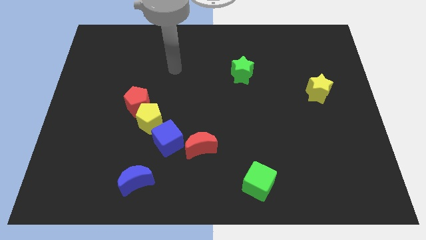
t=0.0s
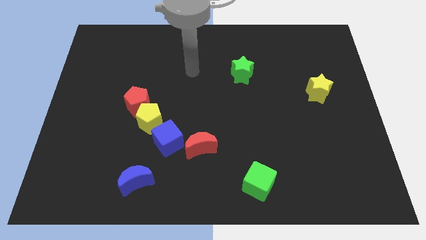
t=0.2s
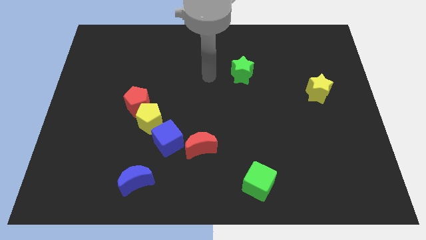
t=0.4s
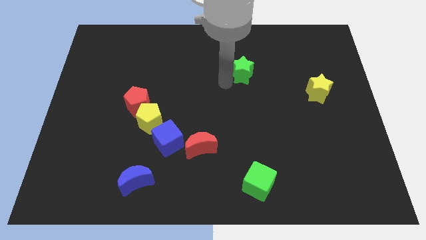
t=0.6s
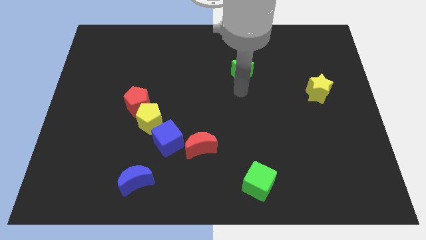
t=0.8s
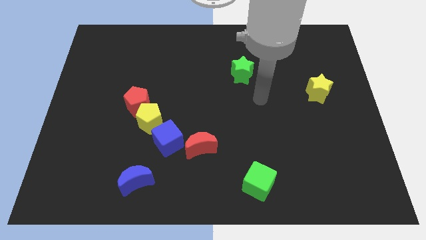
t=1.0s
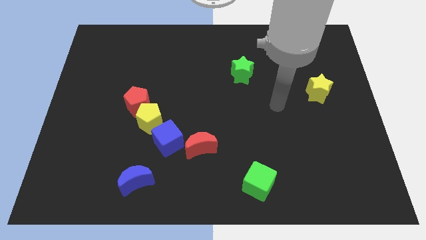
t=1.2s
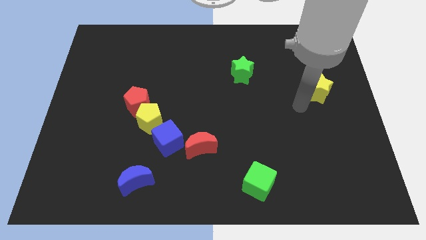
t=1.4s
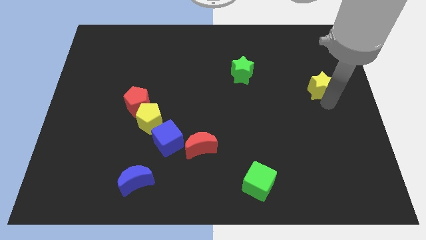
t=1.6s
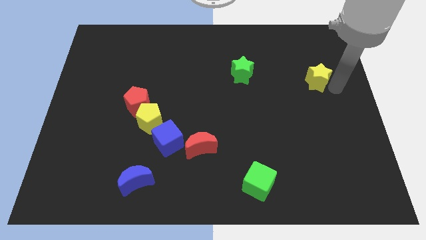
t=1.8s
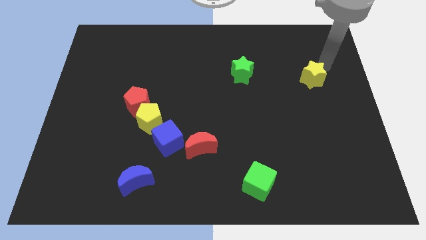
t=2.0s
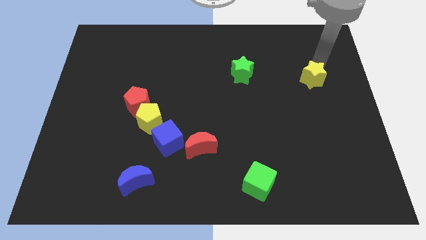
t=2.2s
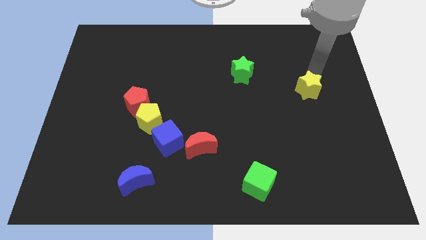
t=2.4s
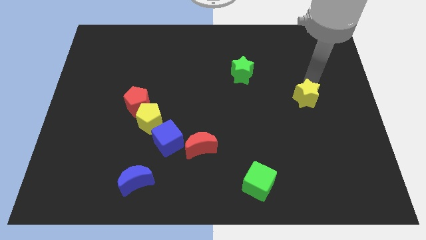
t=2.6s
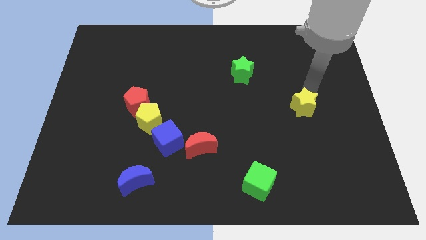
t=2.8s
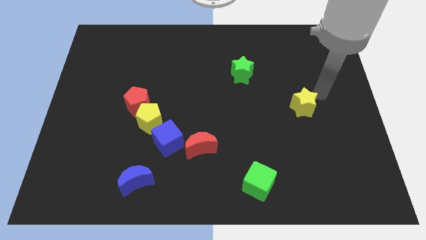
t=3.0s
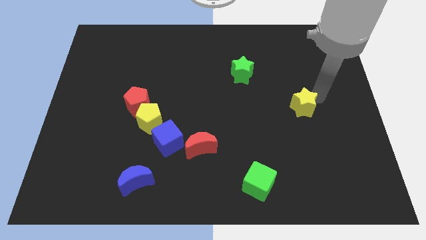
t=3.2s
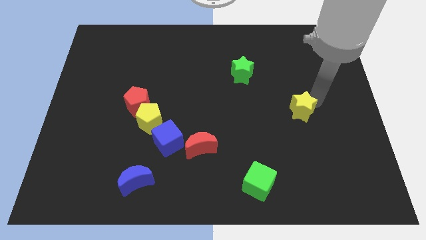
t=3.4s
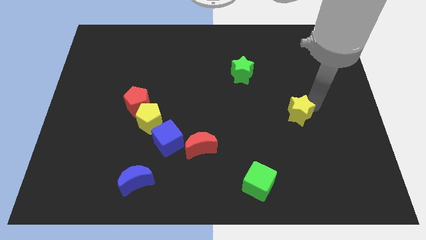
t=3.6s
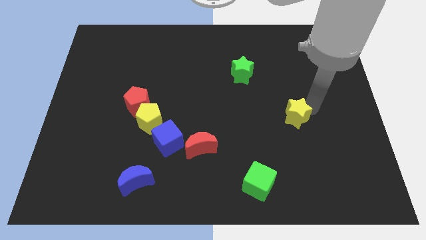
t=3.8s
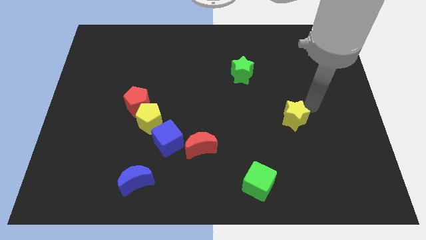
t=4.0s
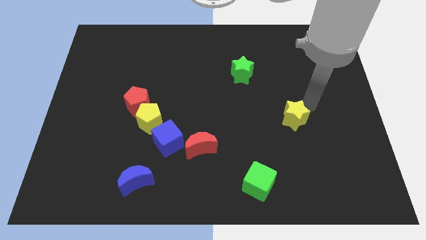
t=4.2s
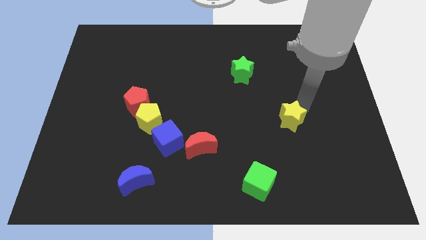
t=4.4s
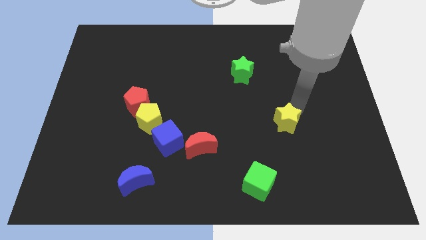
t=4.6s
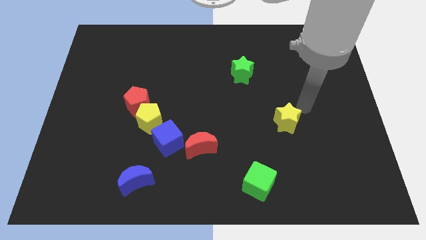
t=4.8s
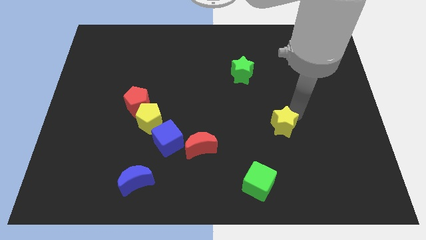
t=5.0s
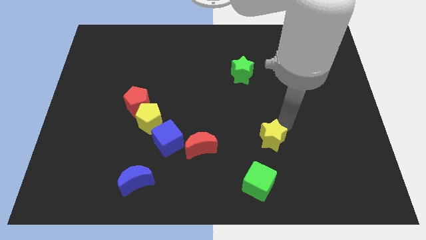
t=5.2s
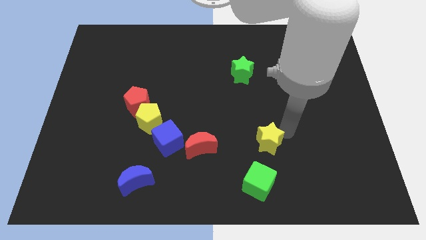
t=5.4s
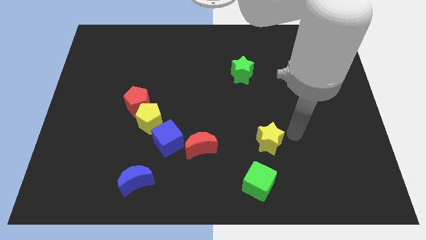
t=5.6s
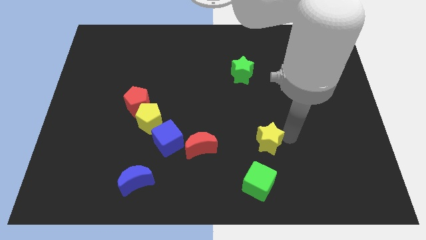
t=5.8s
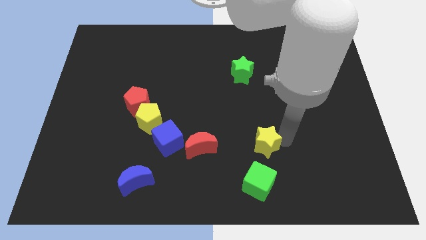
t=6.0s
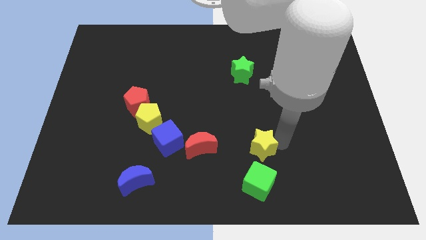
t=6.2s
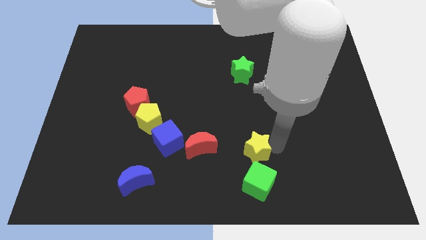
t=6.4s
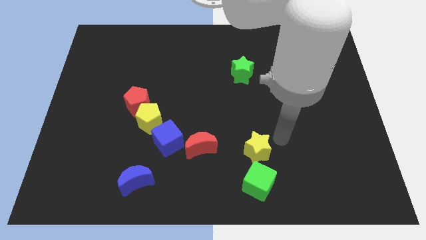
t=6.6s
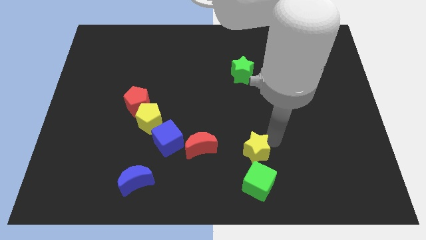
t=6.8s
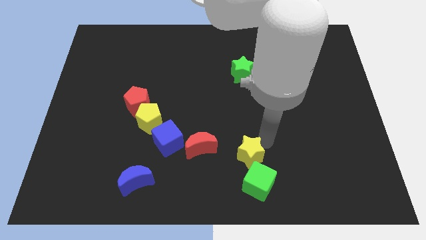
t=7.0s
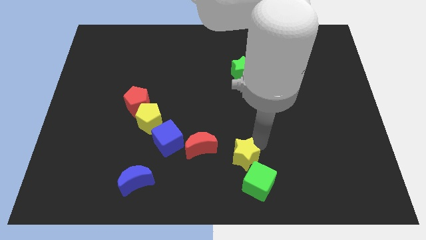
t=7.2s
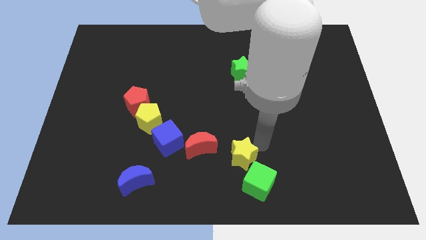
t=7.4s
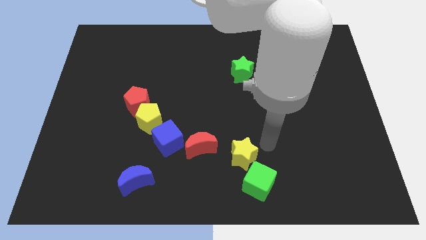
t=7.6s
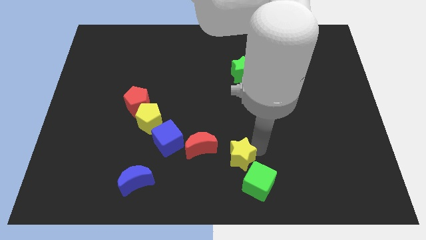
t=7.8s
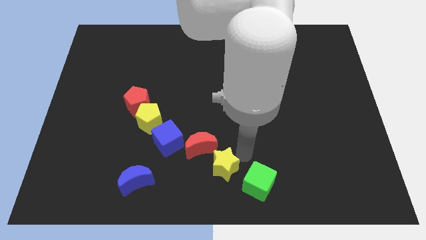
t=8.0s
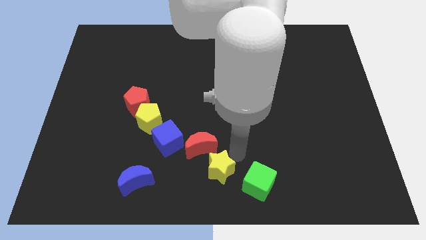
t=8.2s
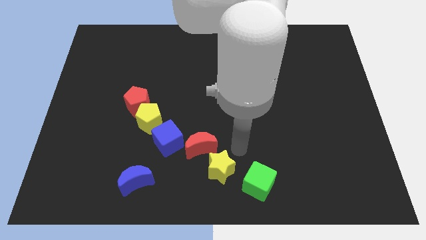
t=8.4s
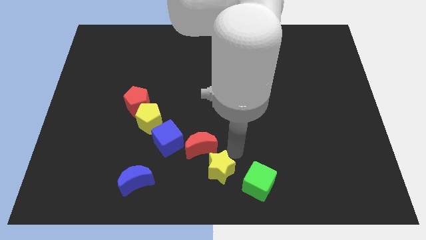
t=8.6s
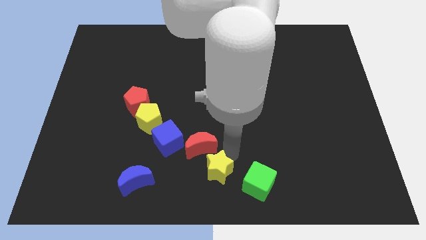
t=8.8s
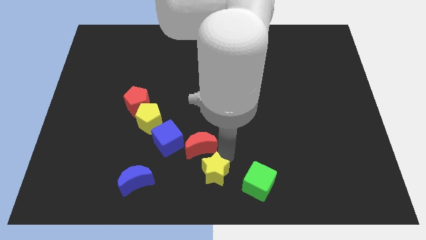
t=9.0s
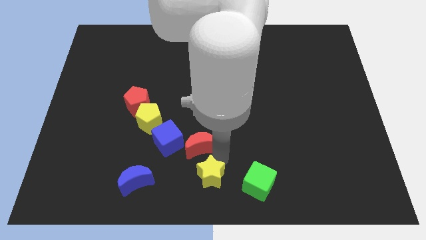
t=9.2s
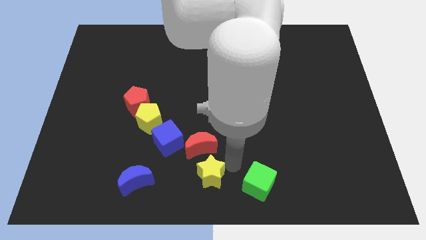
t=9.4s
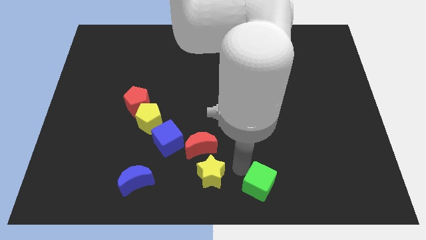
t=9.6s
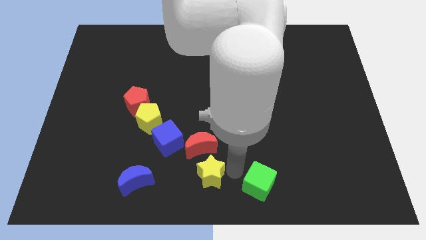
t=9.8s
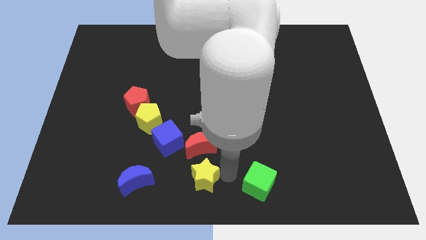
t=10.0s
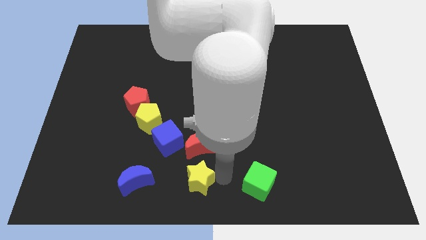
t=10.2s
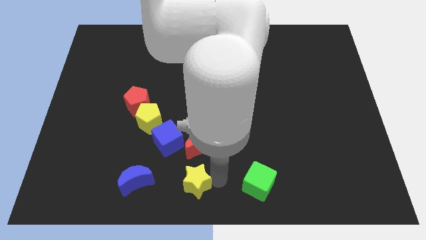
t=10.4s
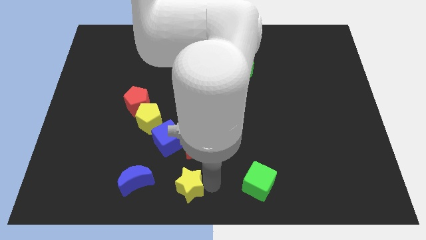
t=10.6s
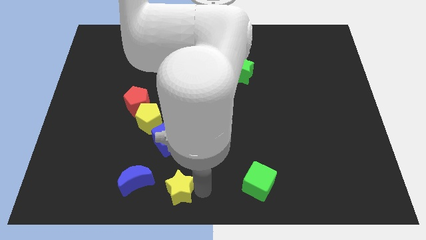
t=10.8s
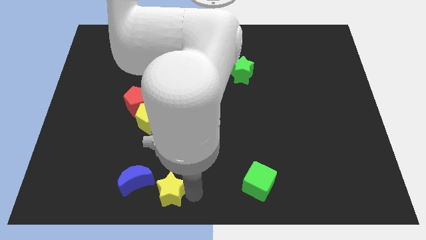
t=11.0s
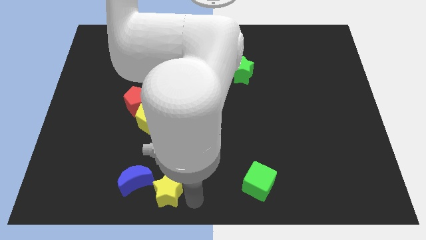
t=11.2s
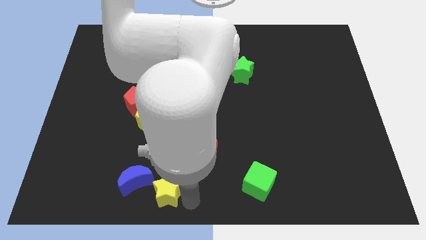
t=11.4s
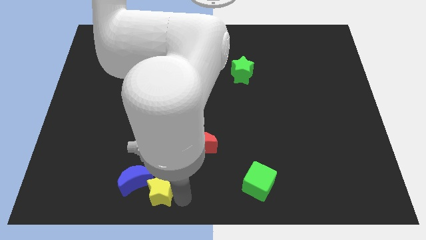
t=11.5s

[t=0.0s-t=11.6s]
push the yellow star towards the blue moon

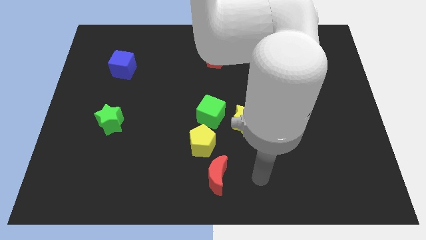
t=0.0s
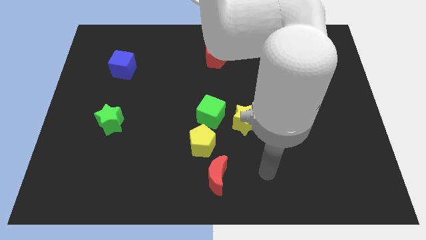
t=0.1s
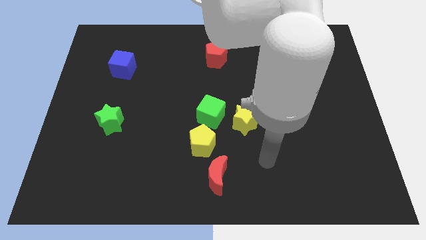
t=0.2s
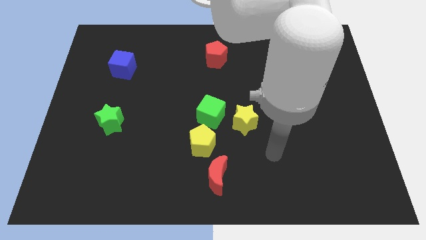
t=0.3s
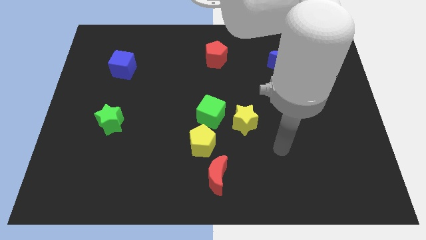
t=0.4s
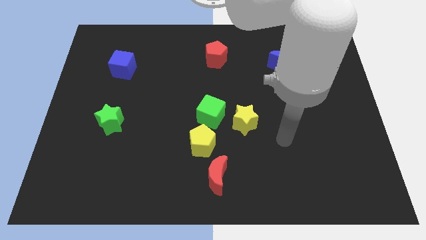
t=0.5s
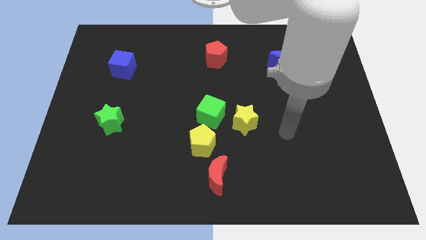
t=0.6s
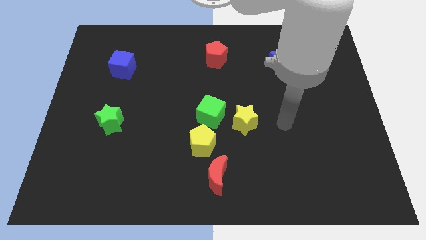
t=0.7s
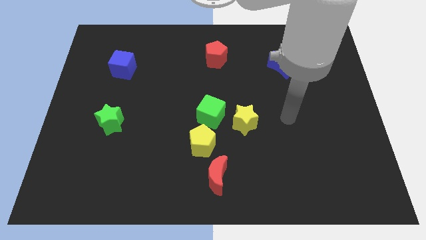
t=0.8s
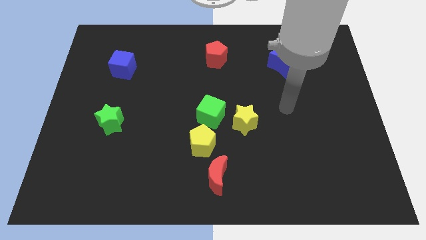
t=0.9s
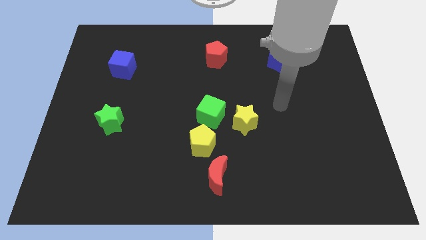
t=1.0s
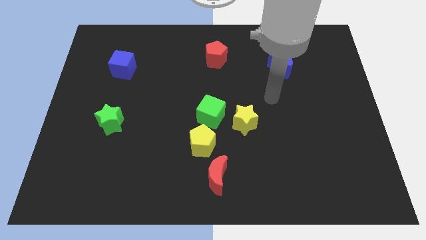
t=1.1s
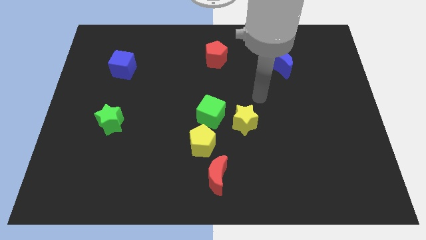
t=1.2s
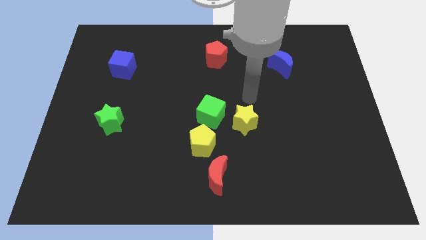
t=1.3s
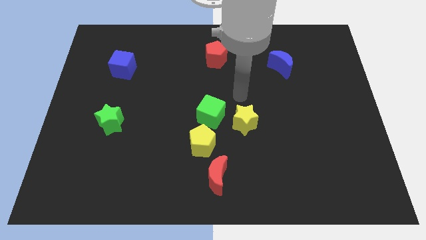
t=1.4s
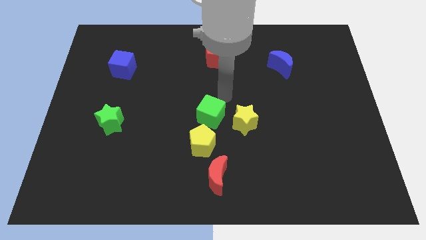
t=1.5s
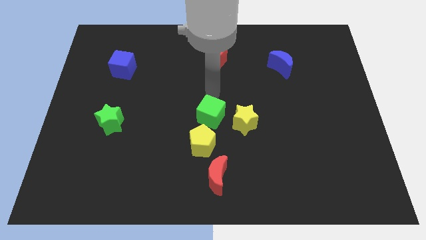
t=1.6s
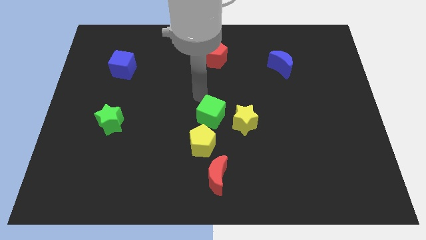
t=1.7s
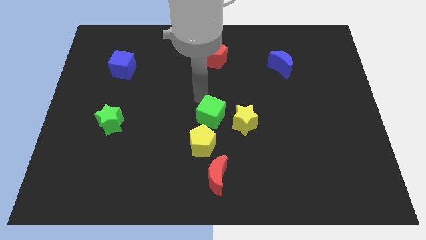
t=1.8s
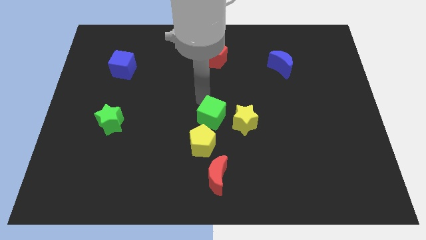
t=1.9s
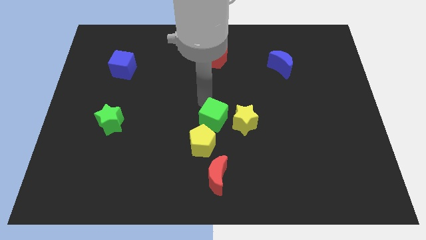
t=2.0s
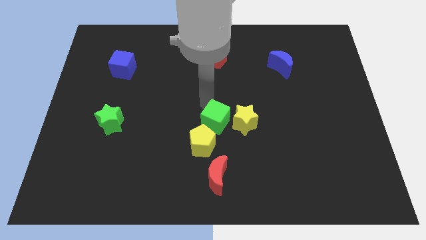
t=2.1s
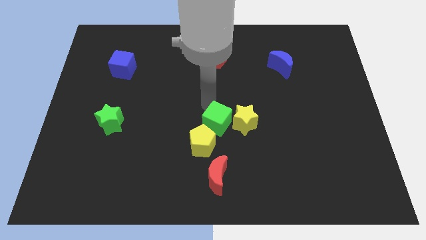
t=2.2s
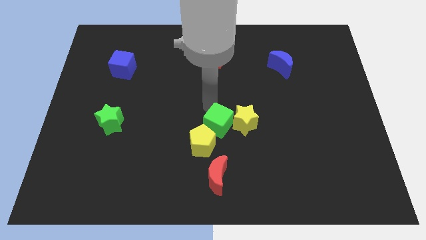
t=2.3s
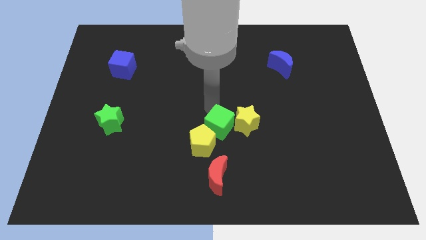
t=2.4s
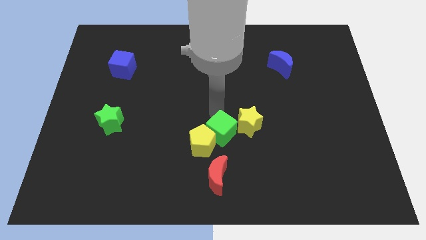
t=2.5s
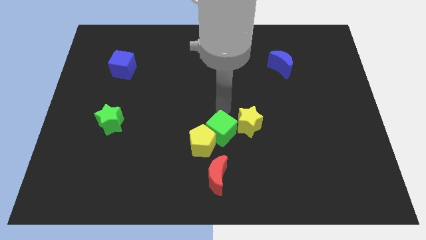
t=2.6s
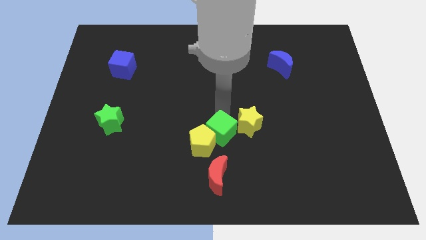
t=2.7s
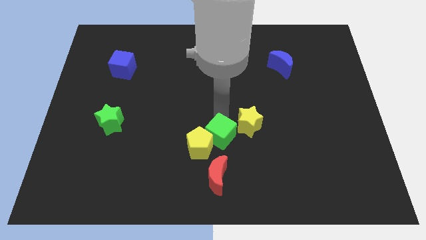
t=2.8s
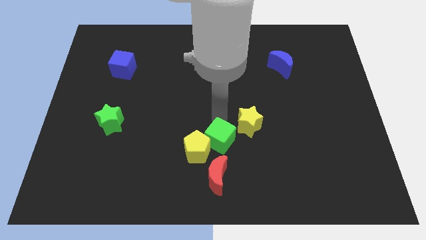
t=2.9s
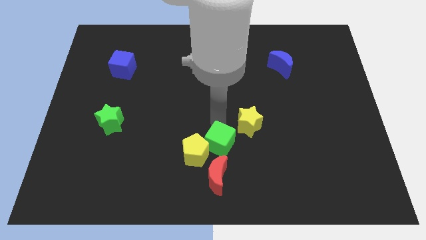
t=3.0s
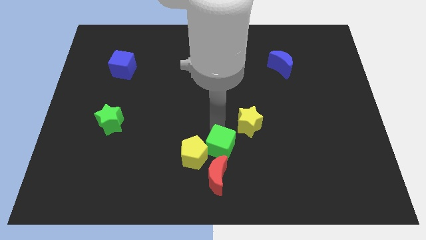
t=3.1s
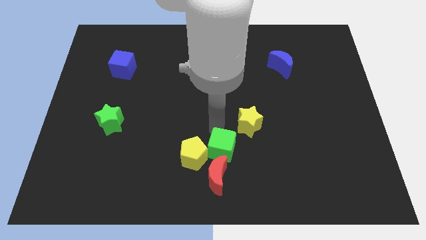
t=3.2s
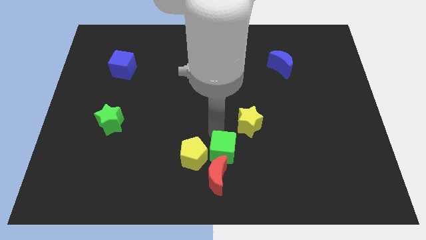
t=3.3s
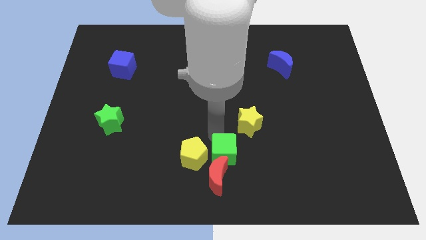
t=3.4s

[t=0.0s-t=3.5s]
push the green cube towards the red moon
